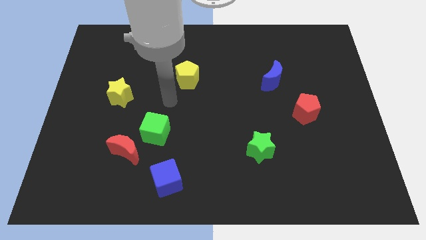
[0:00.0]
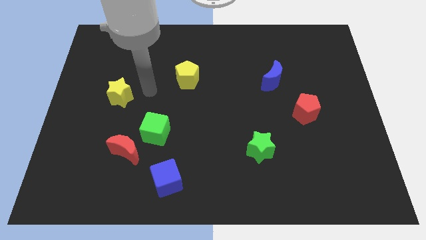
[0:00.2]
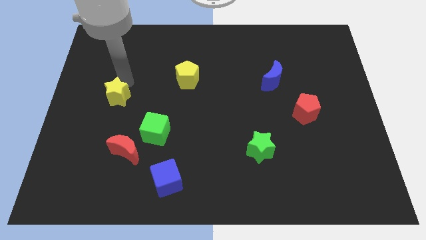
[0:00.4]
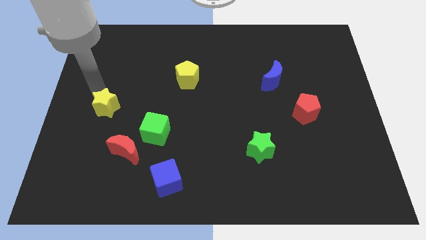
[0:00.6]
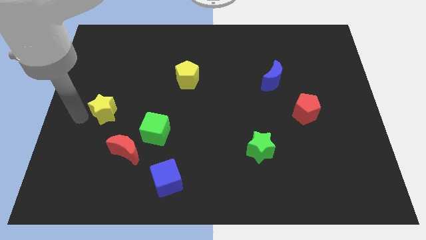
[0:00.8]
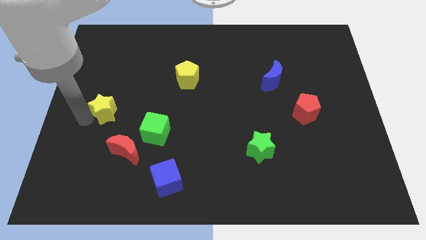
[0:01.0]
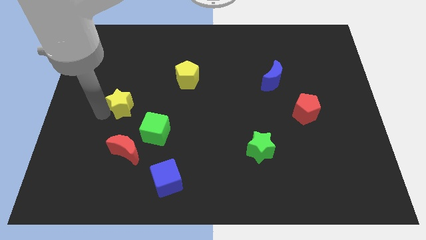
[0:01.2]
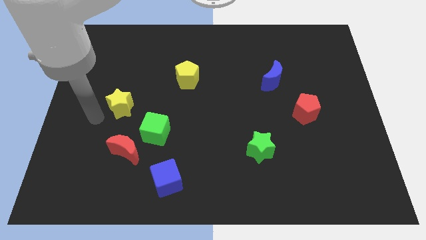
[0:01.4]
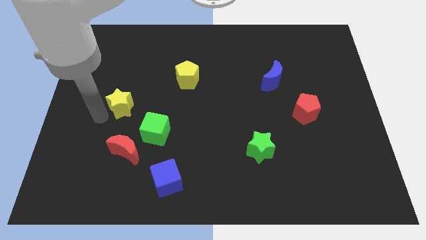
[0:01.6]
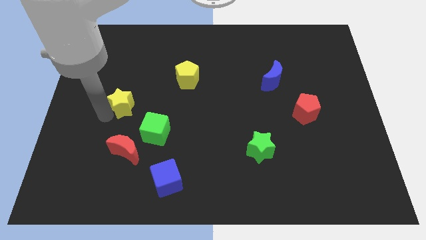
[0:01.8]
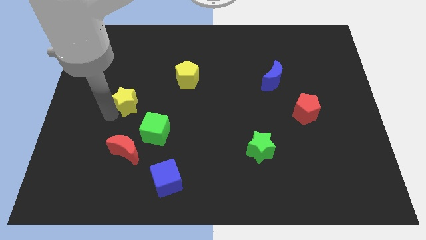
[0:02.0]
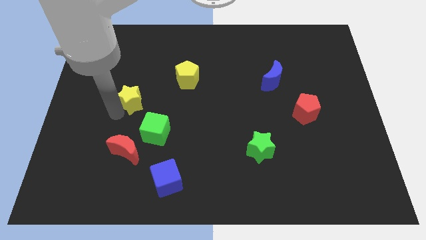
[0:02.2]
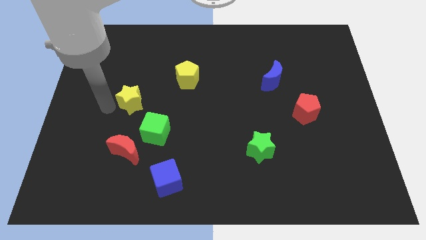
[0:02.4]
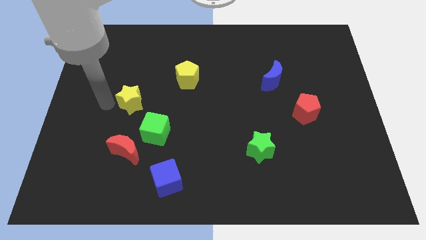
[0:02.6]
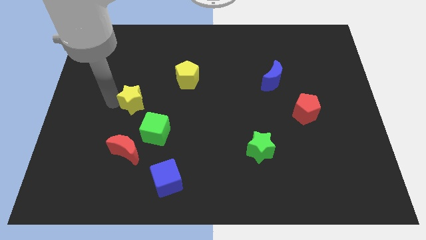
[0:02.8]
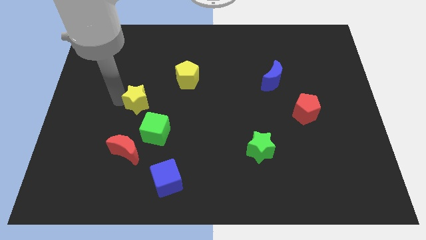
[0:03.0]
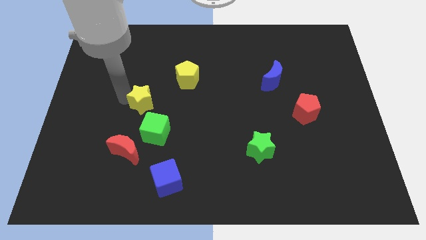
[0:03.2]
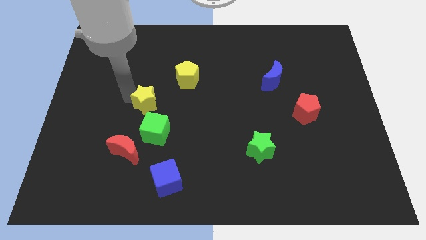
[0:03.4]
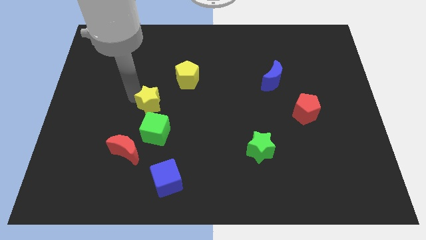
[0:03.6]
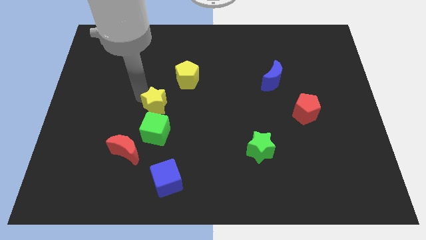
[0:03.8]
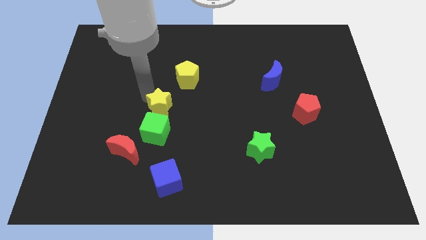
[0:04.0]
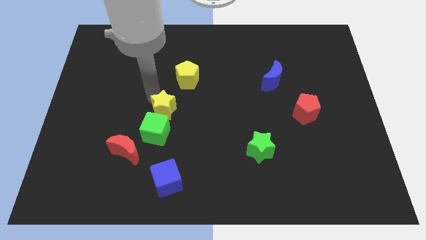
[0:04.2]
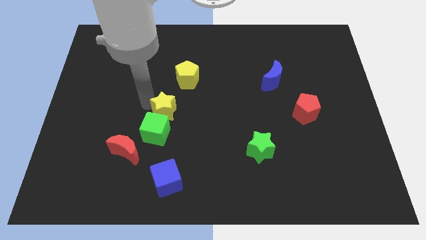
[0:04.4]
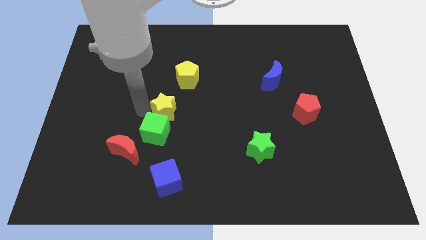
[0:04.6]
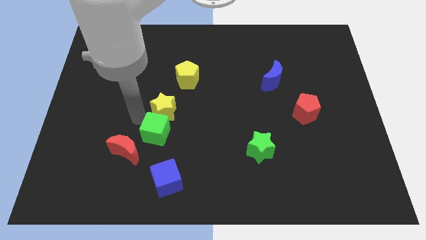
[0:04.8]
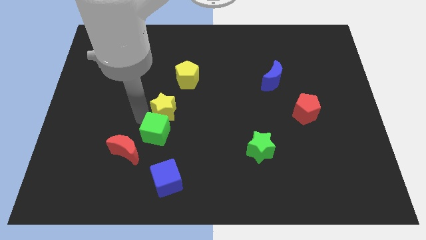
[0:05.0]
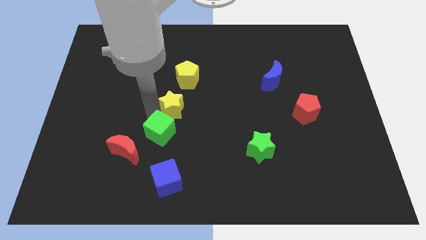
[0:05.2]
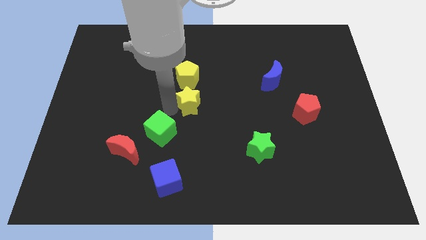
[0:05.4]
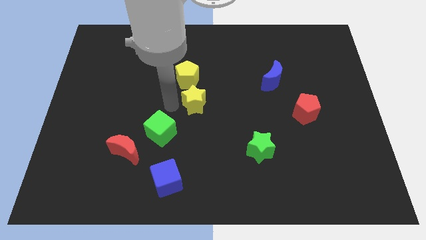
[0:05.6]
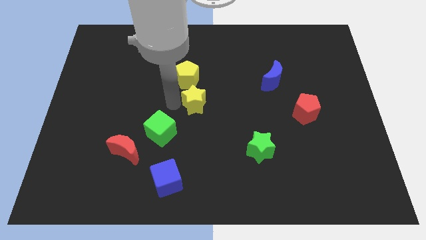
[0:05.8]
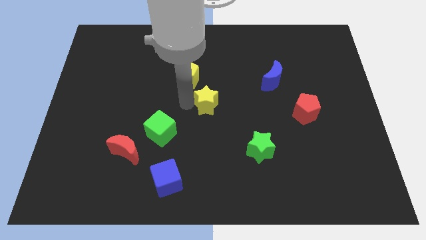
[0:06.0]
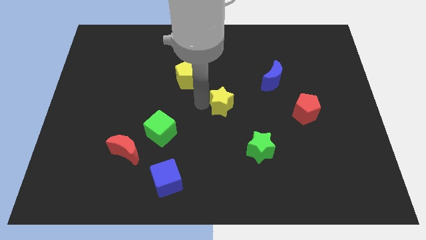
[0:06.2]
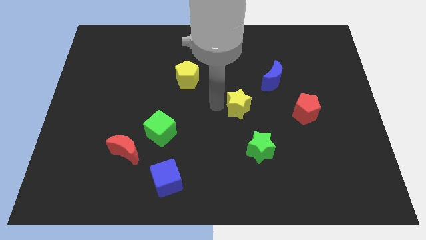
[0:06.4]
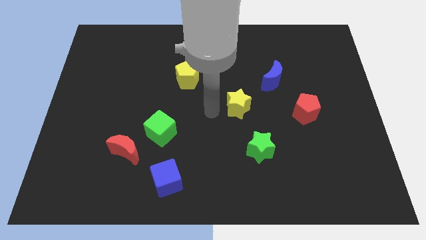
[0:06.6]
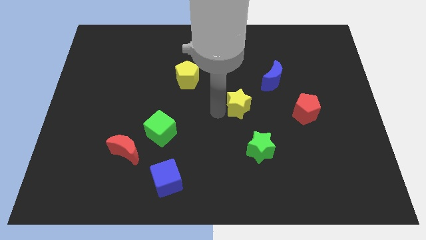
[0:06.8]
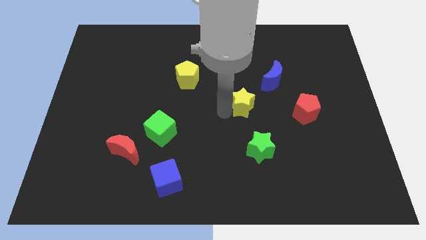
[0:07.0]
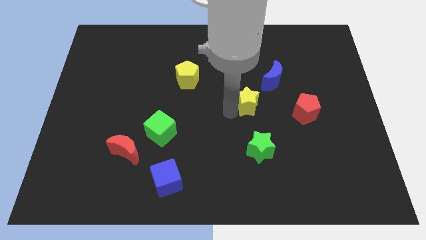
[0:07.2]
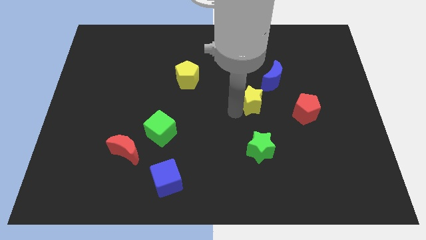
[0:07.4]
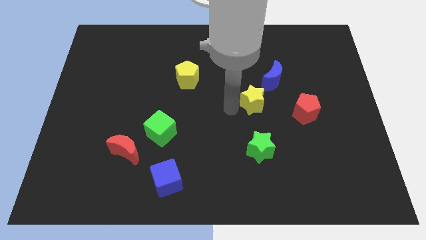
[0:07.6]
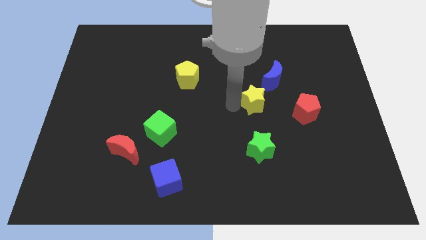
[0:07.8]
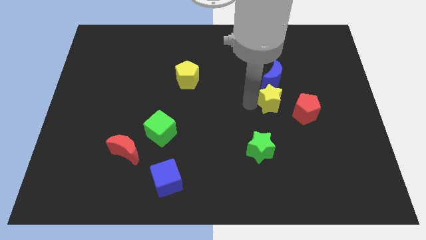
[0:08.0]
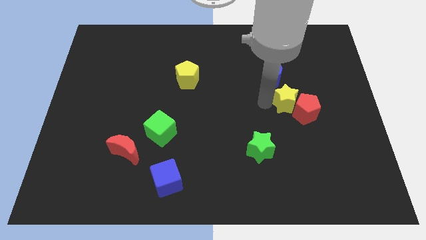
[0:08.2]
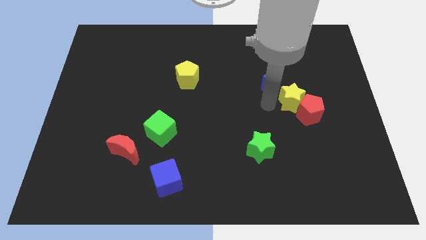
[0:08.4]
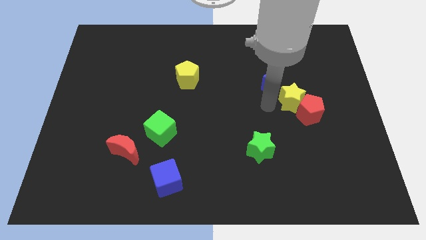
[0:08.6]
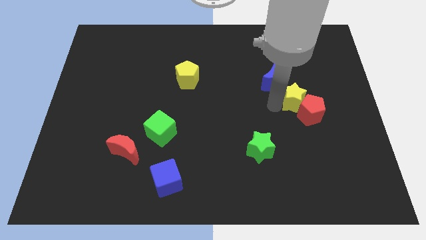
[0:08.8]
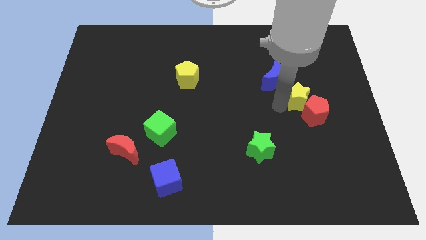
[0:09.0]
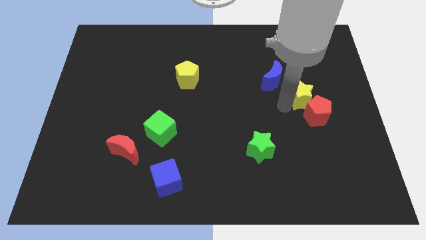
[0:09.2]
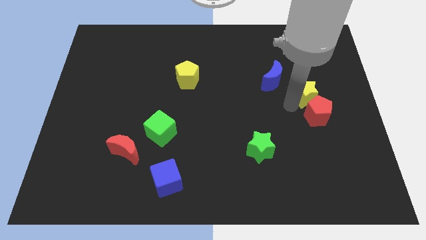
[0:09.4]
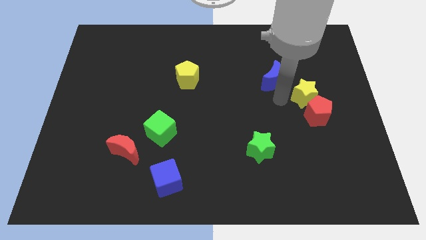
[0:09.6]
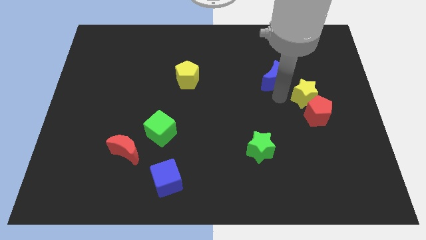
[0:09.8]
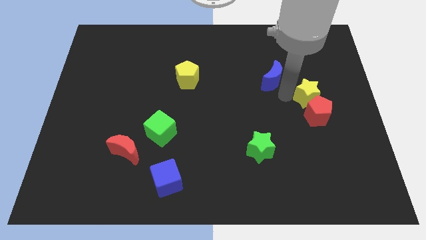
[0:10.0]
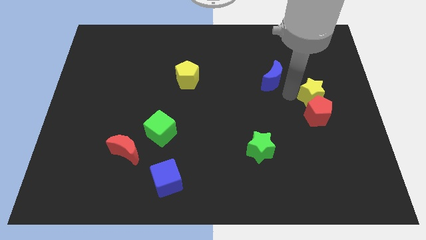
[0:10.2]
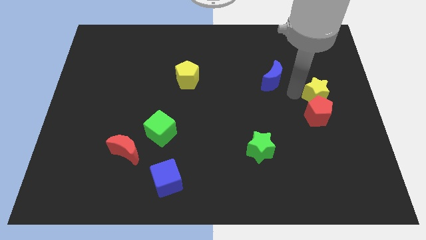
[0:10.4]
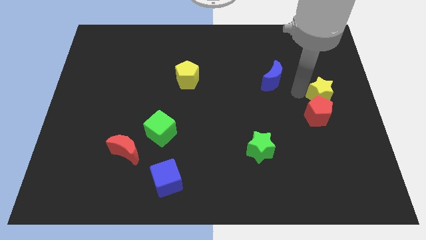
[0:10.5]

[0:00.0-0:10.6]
move the yellow star to the right side of the board

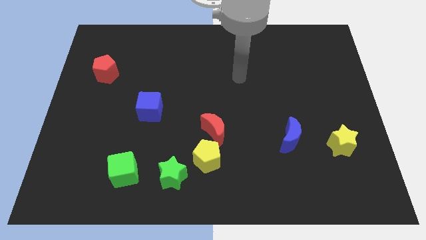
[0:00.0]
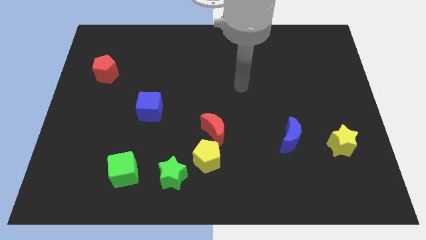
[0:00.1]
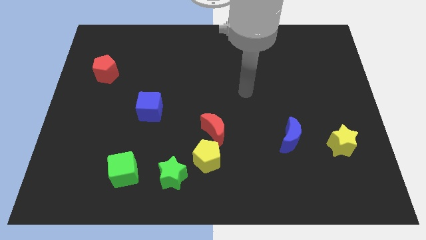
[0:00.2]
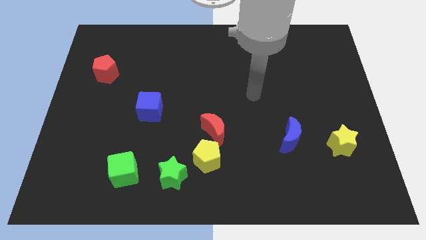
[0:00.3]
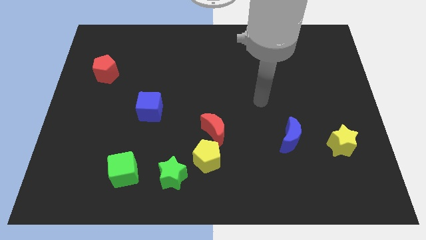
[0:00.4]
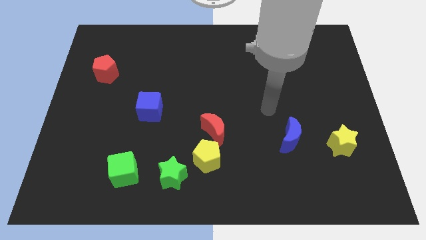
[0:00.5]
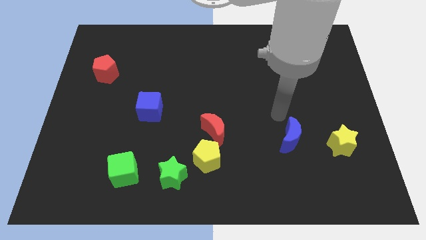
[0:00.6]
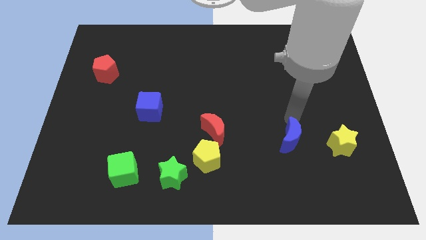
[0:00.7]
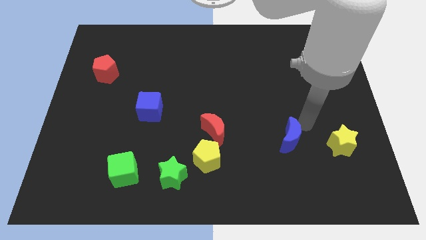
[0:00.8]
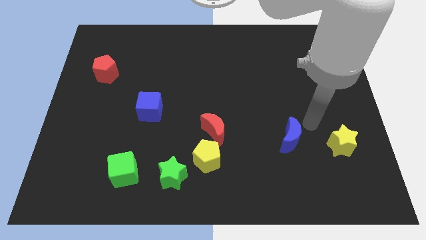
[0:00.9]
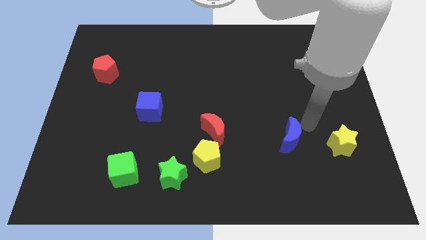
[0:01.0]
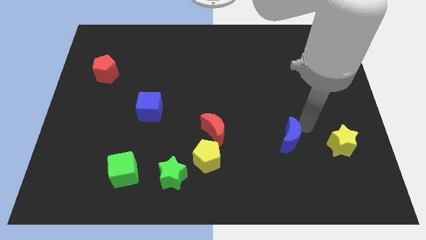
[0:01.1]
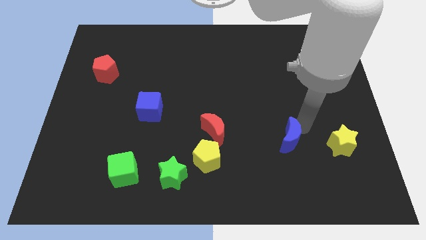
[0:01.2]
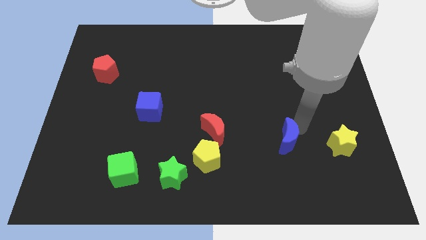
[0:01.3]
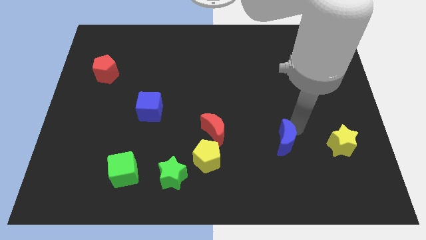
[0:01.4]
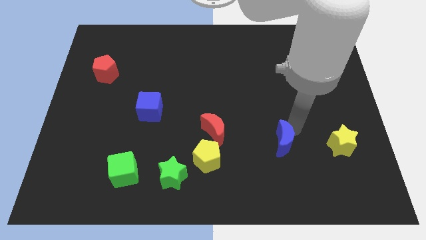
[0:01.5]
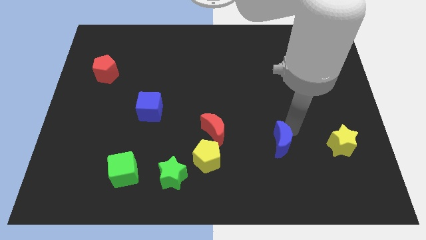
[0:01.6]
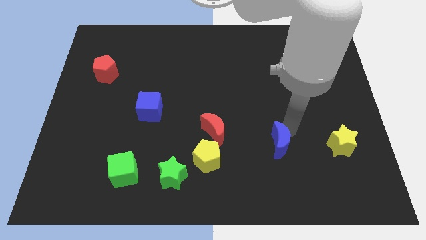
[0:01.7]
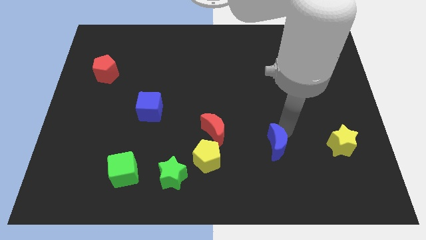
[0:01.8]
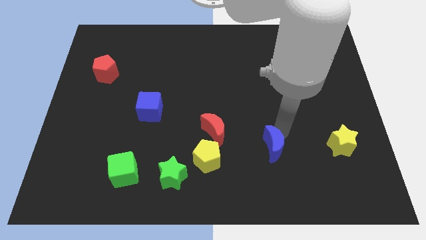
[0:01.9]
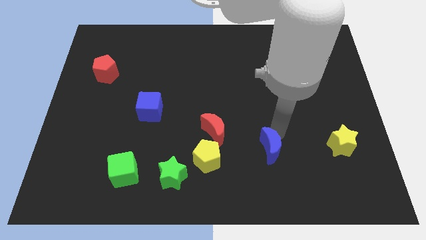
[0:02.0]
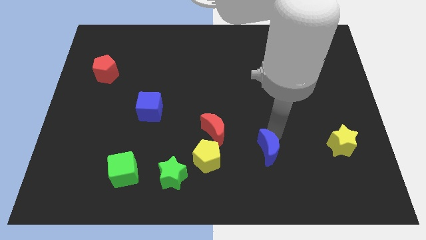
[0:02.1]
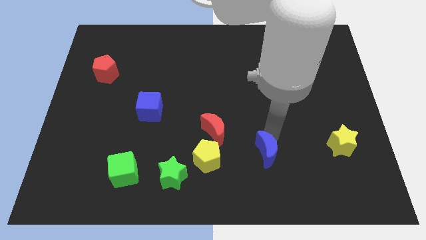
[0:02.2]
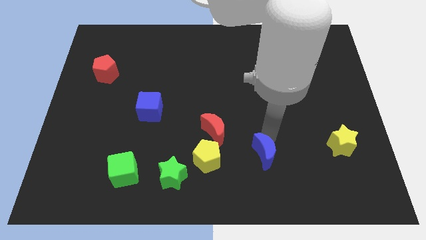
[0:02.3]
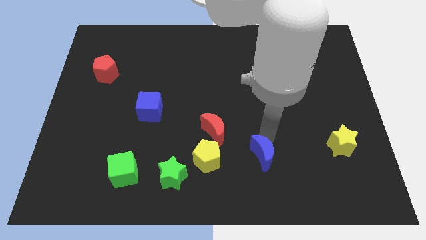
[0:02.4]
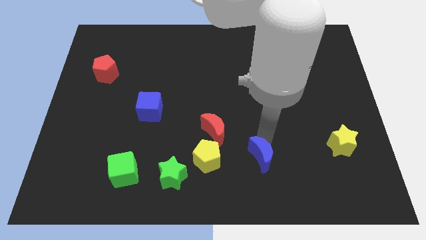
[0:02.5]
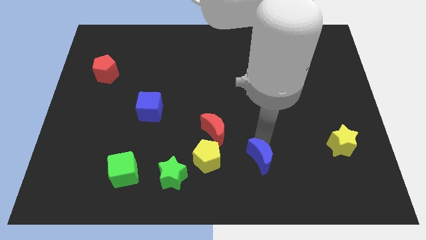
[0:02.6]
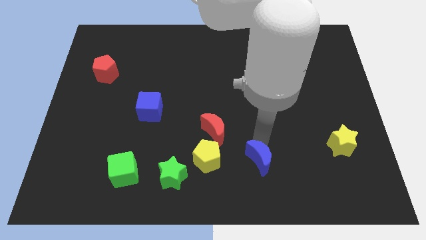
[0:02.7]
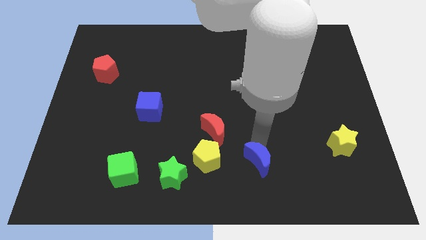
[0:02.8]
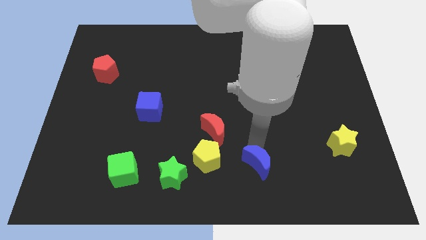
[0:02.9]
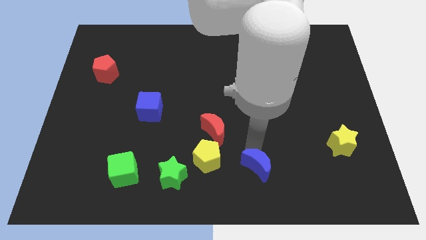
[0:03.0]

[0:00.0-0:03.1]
move the blue moon to the bottom
